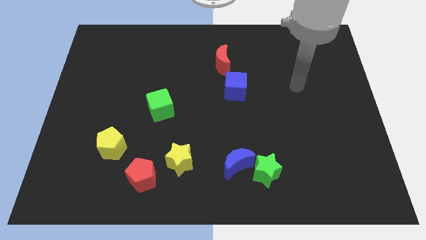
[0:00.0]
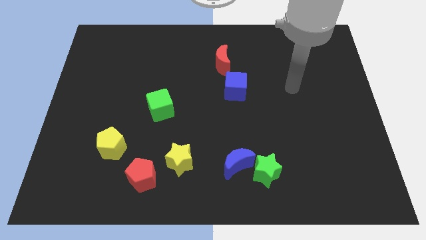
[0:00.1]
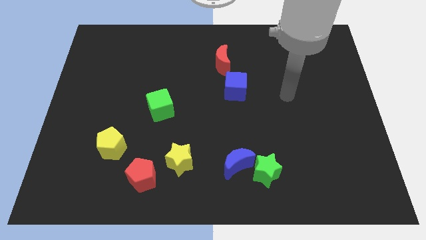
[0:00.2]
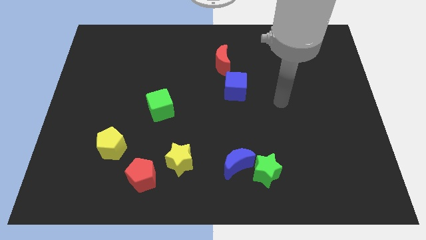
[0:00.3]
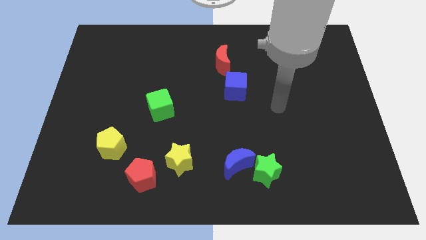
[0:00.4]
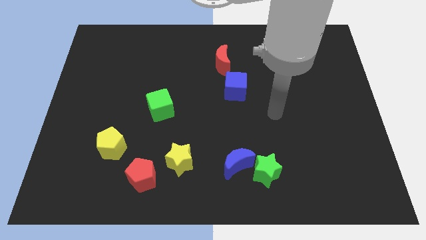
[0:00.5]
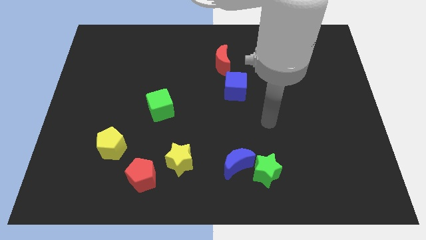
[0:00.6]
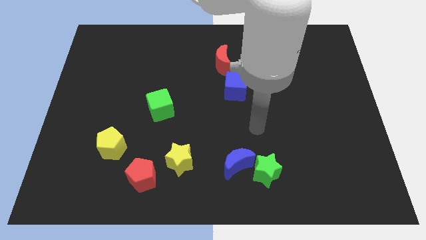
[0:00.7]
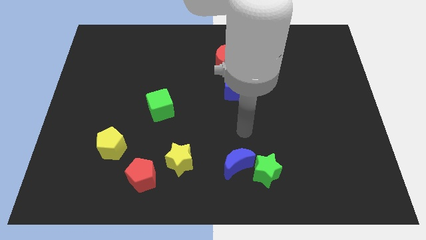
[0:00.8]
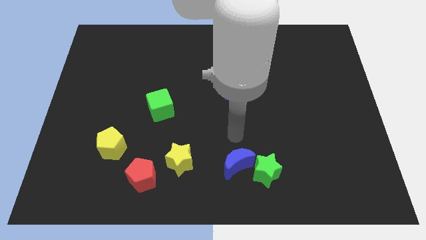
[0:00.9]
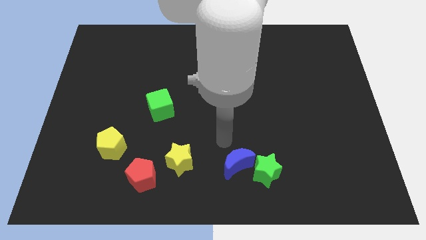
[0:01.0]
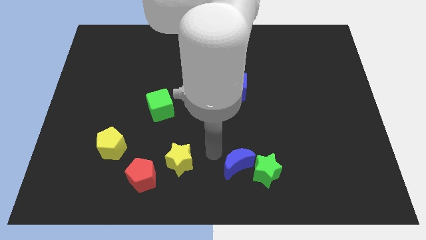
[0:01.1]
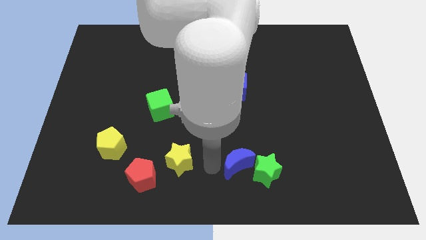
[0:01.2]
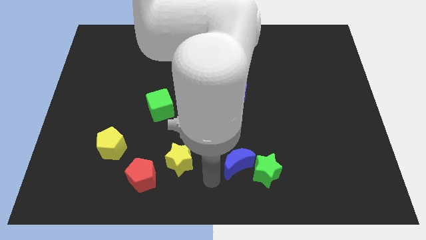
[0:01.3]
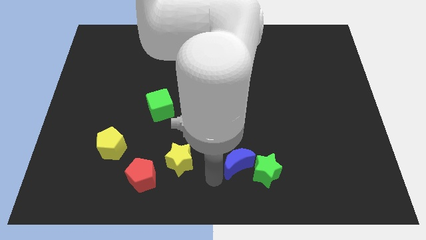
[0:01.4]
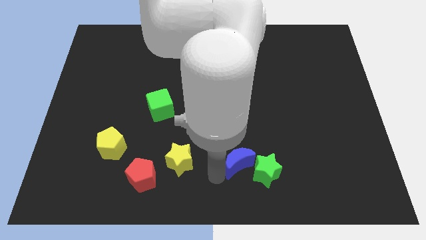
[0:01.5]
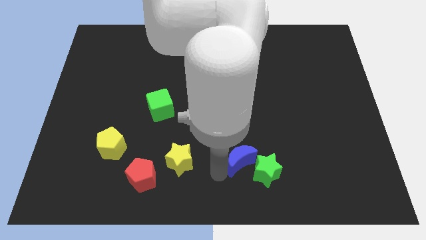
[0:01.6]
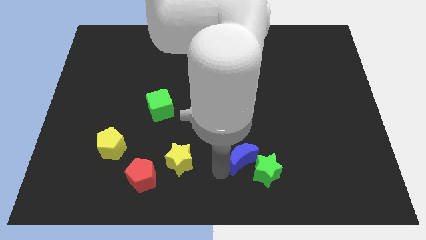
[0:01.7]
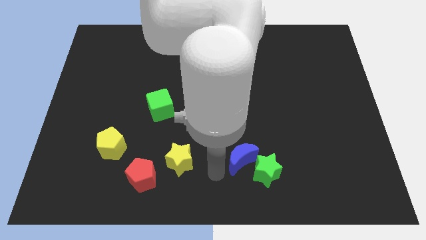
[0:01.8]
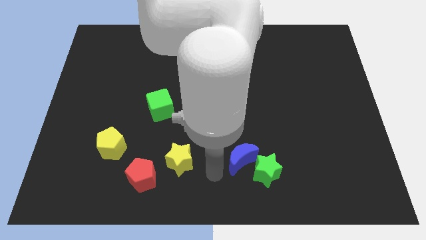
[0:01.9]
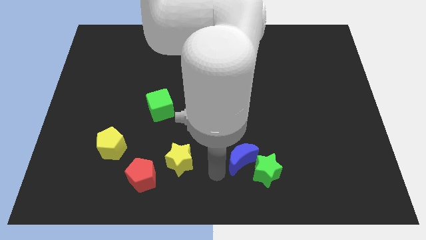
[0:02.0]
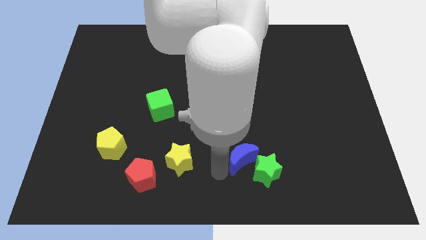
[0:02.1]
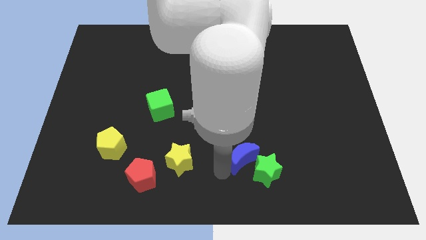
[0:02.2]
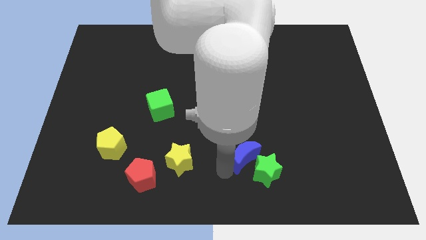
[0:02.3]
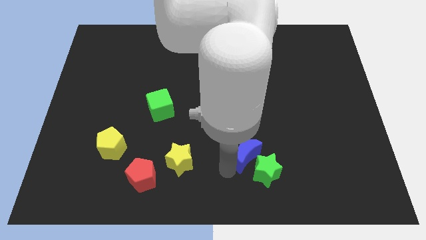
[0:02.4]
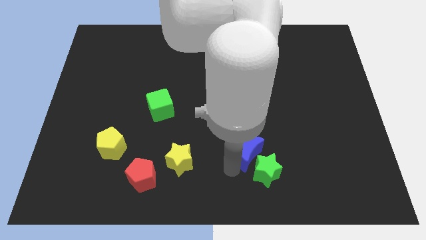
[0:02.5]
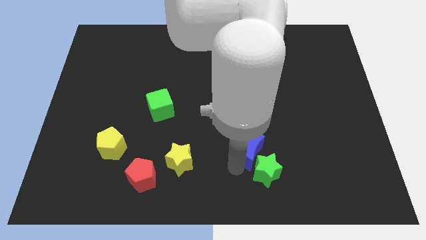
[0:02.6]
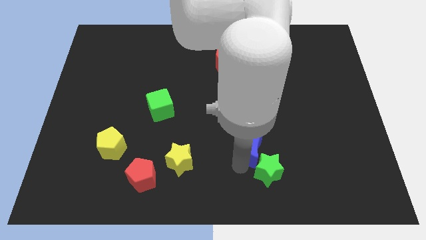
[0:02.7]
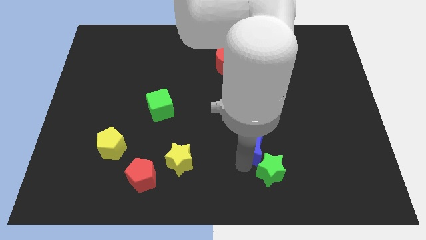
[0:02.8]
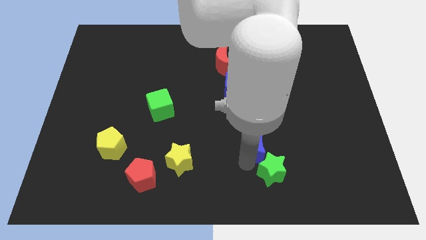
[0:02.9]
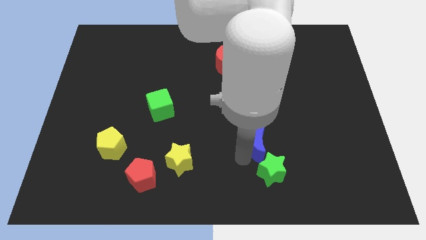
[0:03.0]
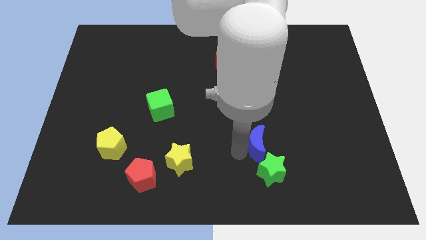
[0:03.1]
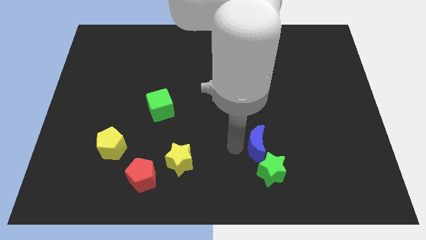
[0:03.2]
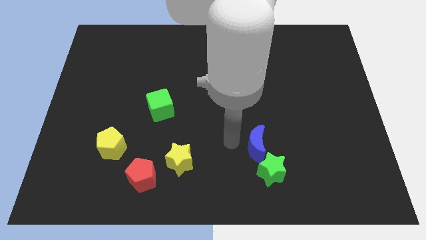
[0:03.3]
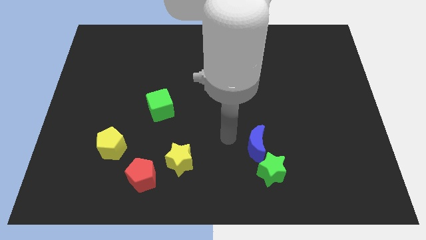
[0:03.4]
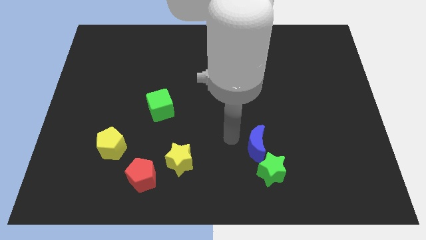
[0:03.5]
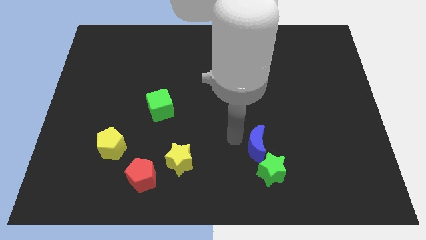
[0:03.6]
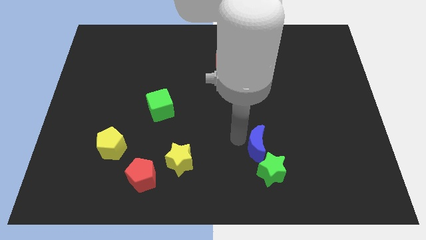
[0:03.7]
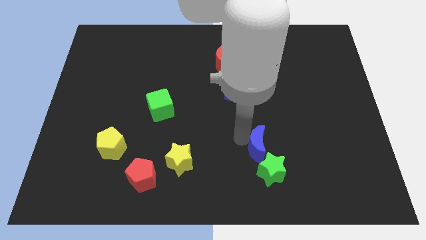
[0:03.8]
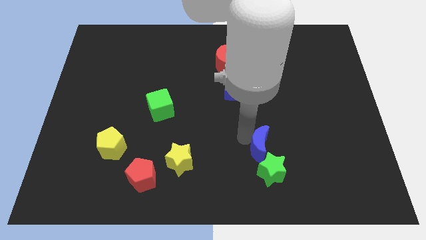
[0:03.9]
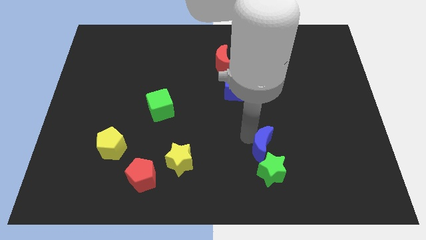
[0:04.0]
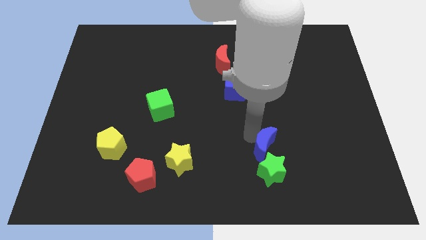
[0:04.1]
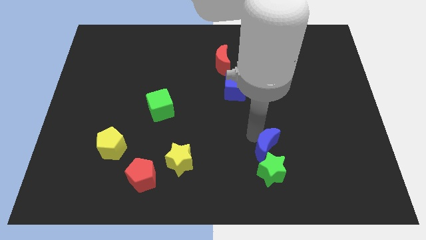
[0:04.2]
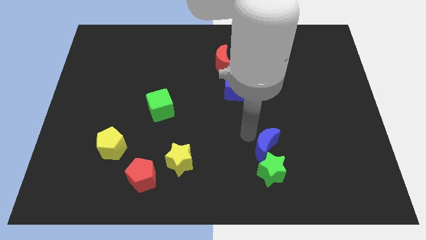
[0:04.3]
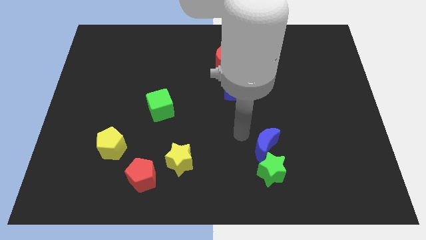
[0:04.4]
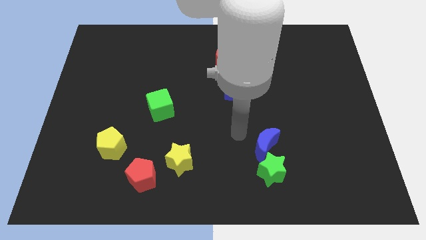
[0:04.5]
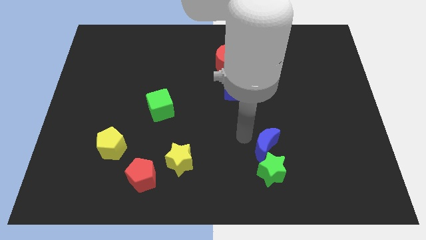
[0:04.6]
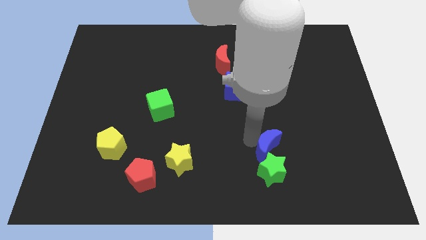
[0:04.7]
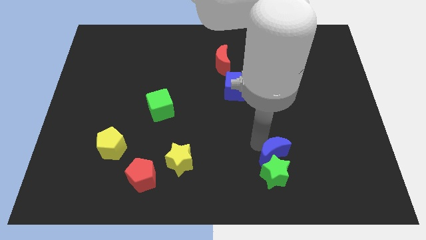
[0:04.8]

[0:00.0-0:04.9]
slightly move the blue moon right

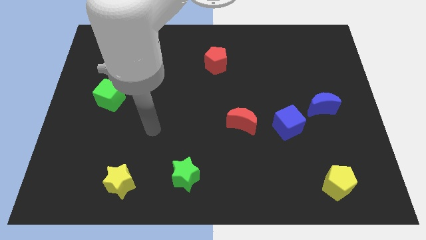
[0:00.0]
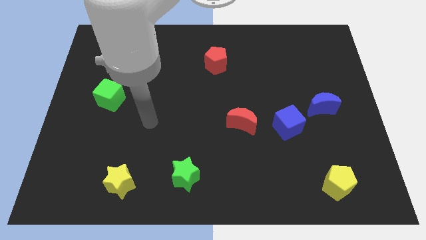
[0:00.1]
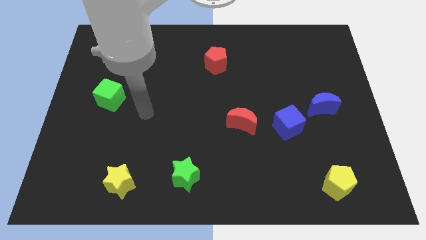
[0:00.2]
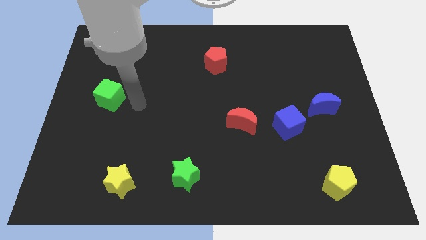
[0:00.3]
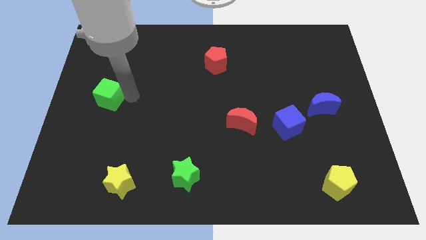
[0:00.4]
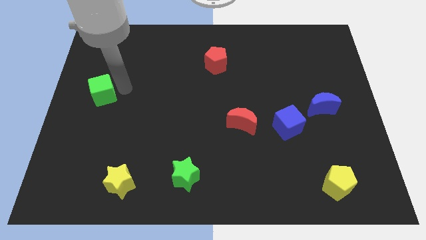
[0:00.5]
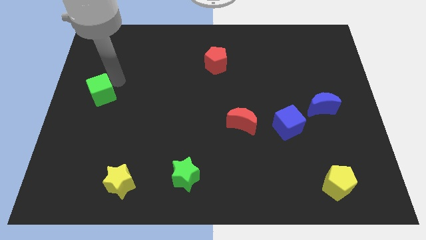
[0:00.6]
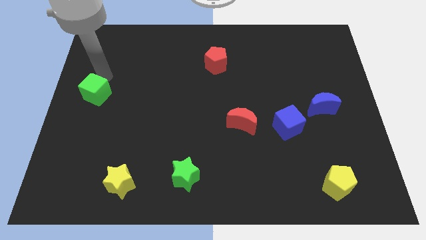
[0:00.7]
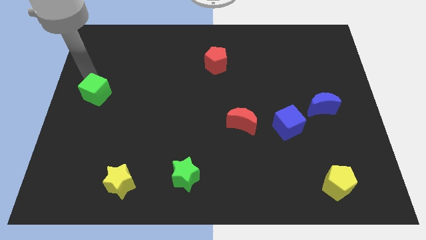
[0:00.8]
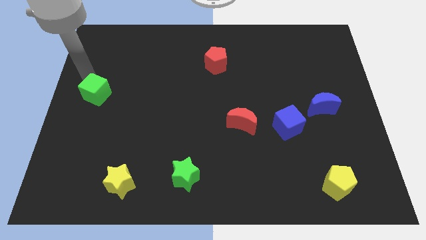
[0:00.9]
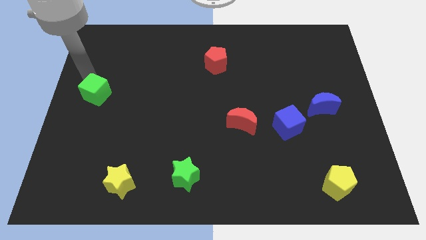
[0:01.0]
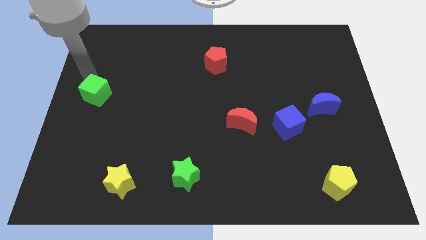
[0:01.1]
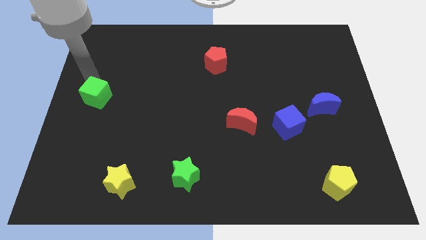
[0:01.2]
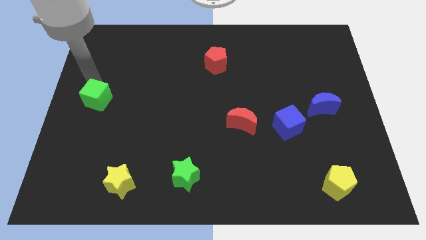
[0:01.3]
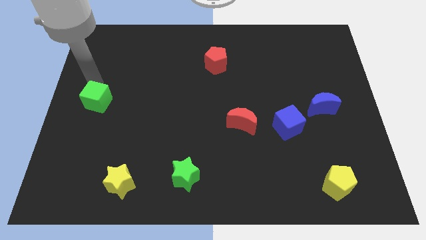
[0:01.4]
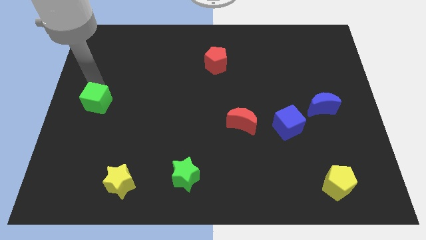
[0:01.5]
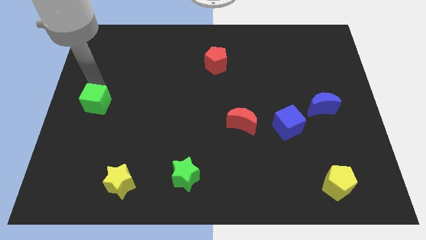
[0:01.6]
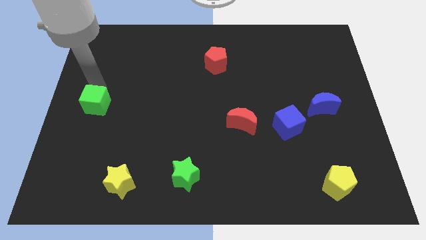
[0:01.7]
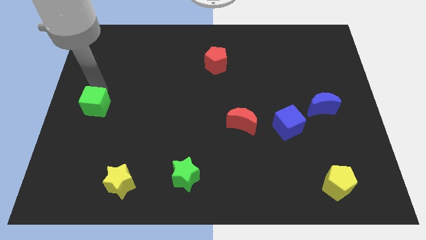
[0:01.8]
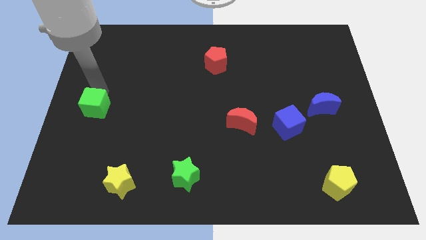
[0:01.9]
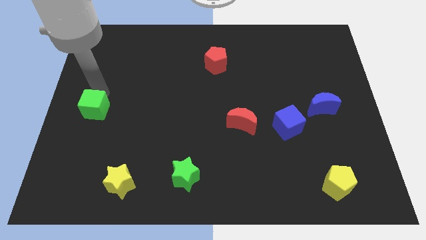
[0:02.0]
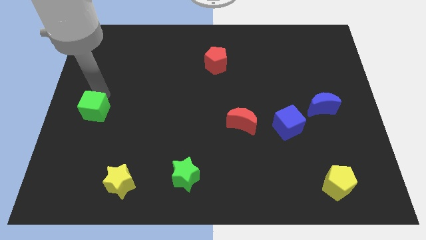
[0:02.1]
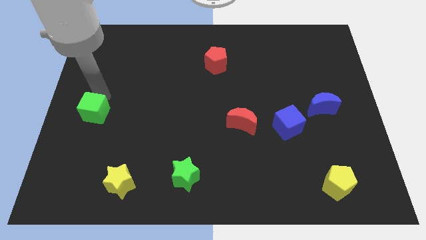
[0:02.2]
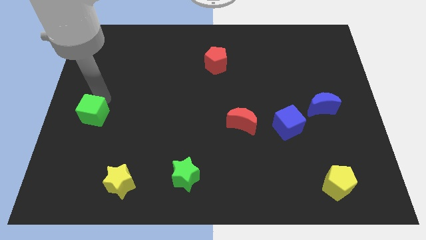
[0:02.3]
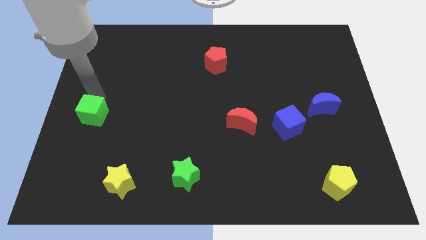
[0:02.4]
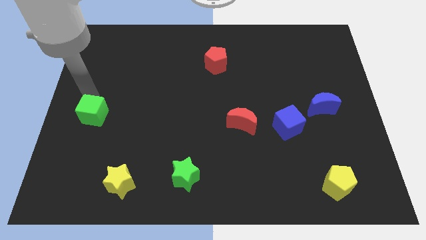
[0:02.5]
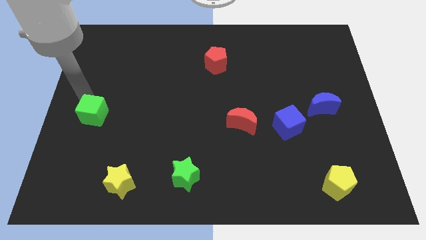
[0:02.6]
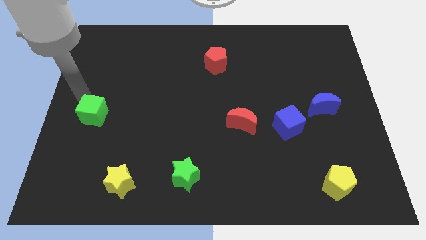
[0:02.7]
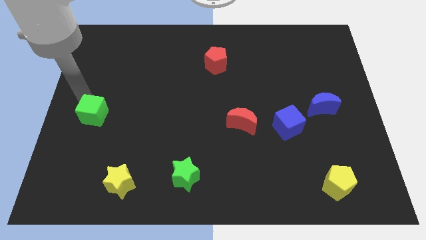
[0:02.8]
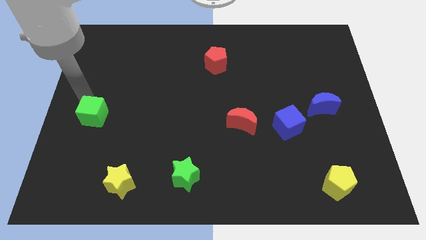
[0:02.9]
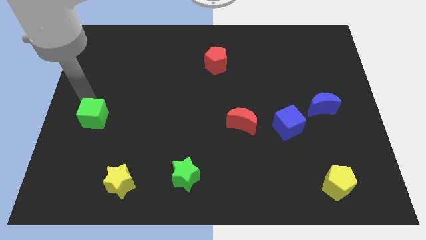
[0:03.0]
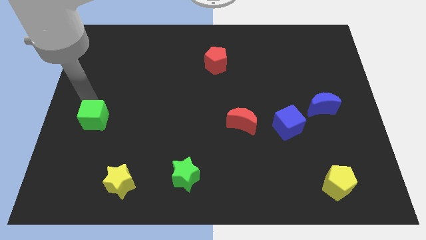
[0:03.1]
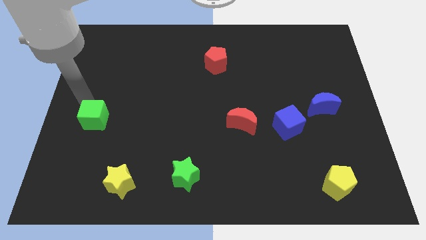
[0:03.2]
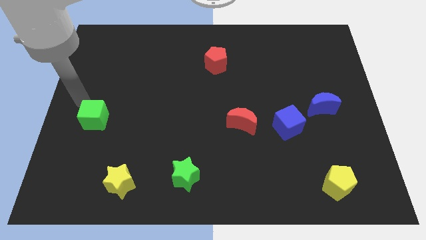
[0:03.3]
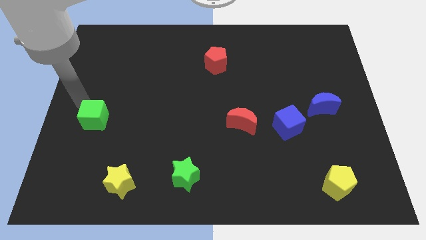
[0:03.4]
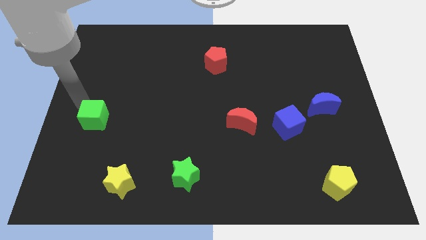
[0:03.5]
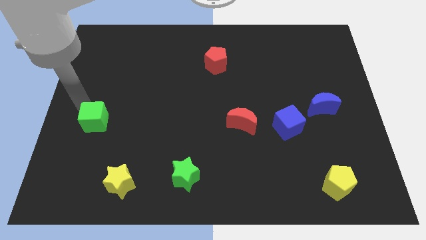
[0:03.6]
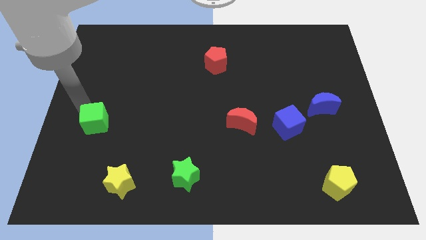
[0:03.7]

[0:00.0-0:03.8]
push the green cube down a bit
